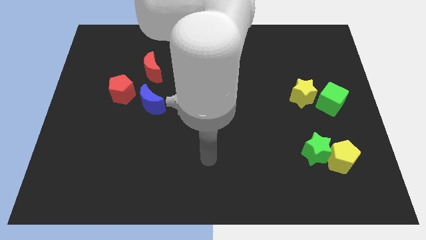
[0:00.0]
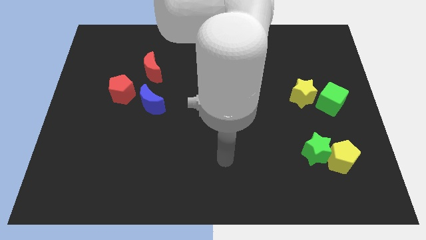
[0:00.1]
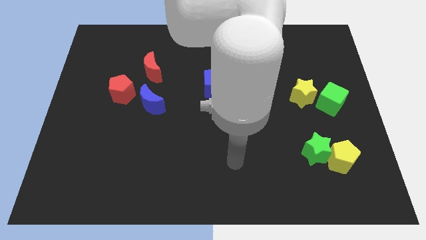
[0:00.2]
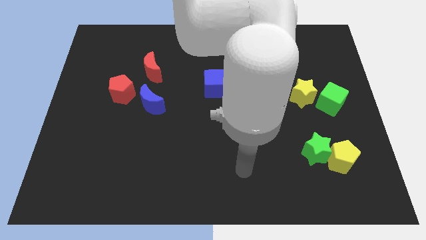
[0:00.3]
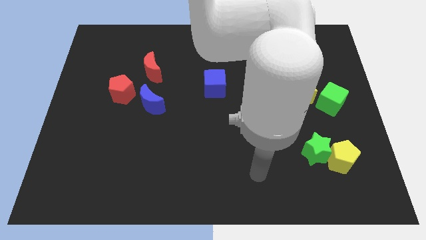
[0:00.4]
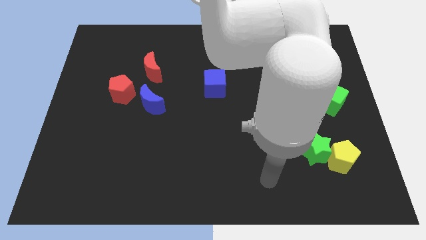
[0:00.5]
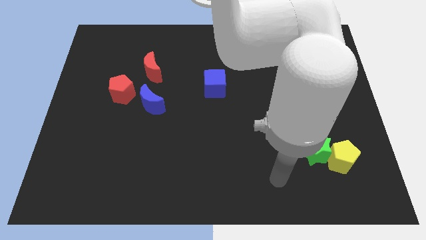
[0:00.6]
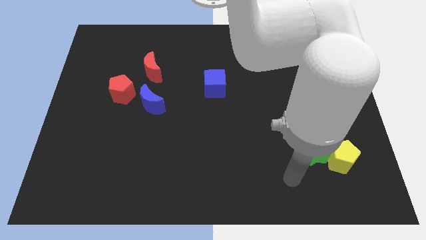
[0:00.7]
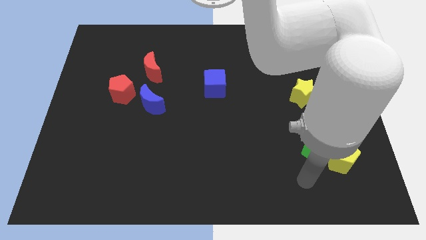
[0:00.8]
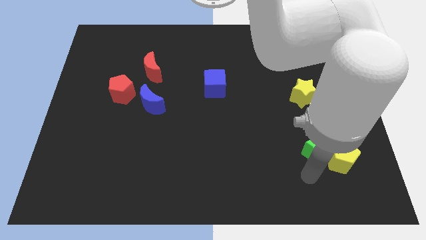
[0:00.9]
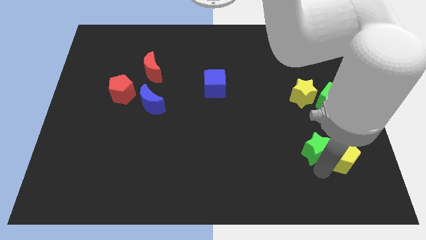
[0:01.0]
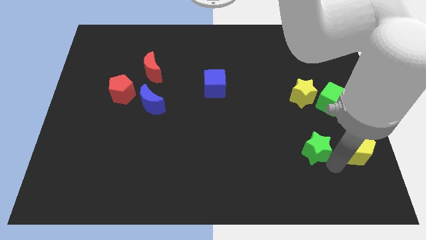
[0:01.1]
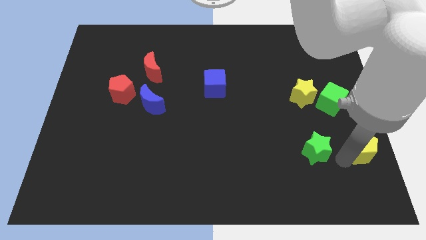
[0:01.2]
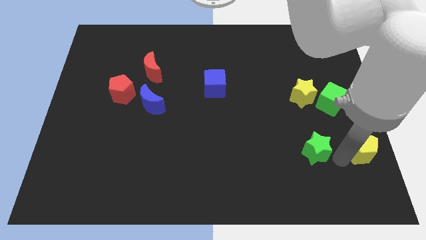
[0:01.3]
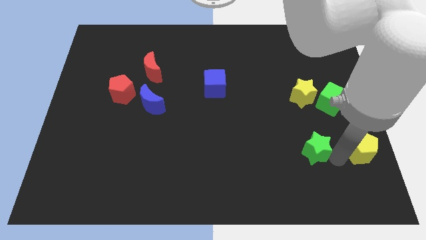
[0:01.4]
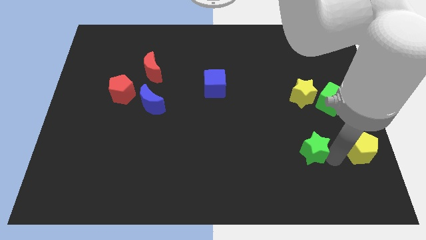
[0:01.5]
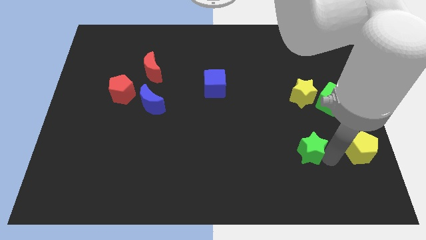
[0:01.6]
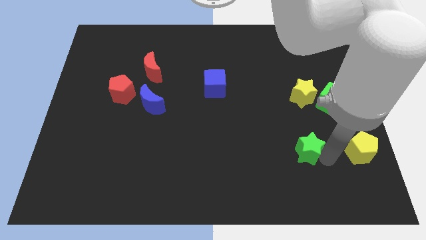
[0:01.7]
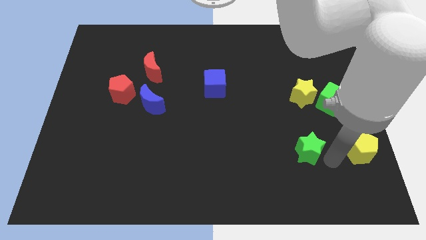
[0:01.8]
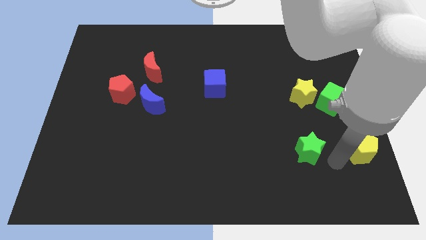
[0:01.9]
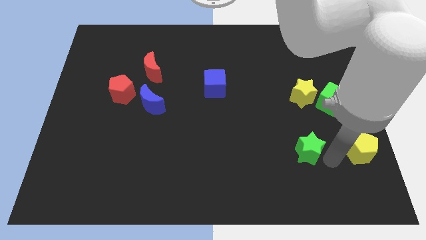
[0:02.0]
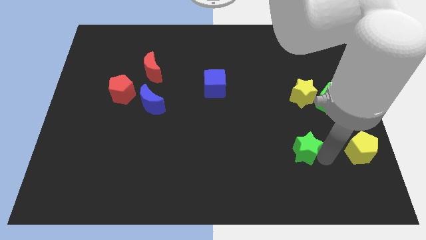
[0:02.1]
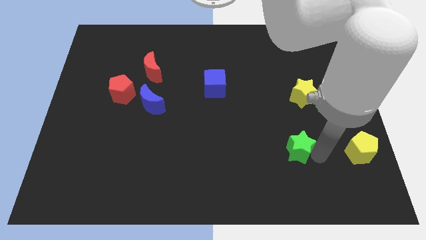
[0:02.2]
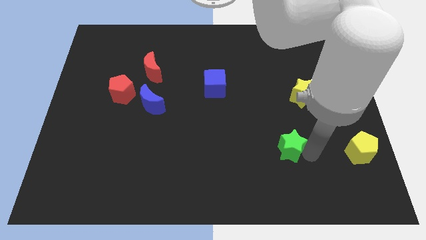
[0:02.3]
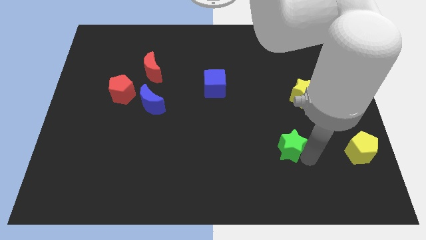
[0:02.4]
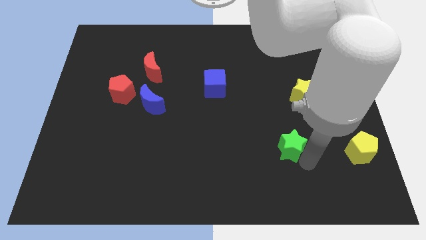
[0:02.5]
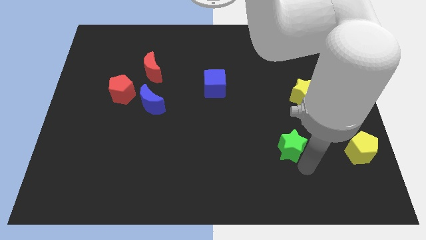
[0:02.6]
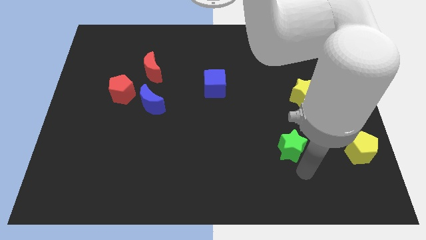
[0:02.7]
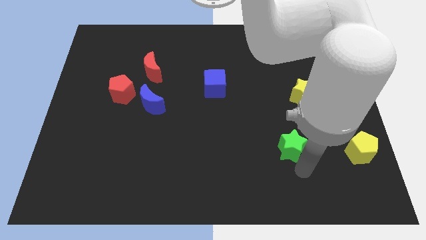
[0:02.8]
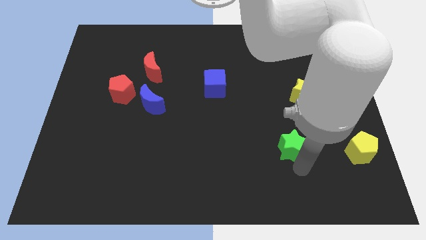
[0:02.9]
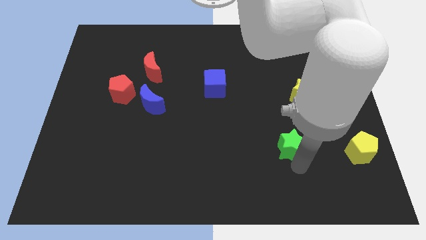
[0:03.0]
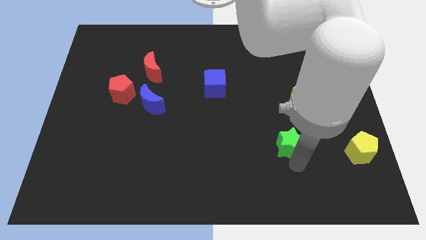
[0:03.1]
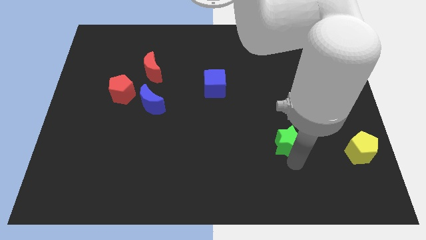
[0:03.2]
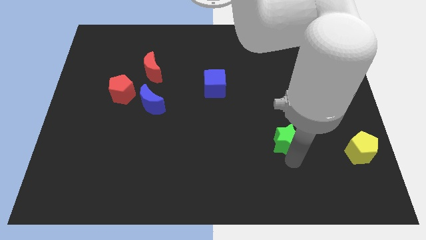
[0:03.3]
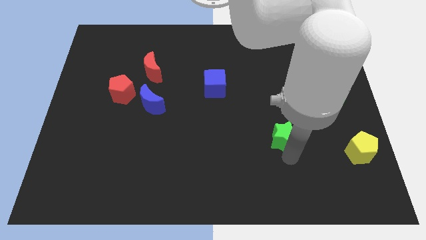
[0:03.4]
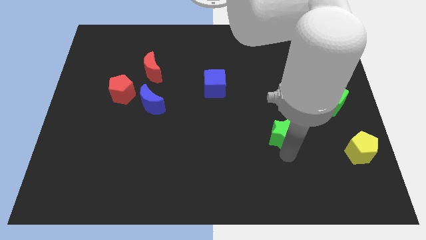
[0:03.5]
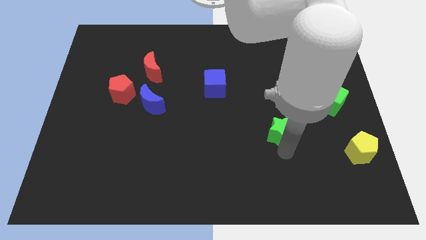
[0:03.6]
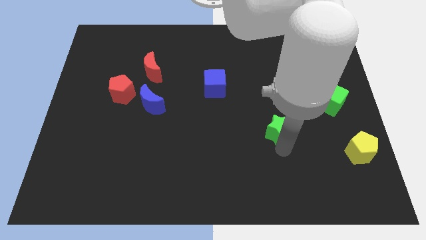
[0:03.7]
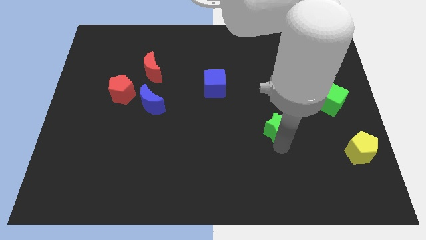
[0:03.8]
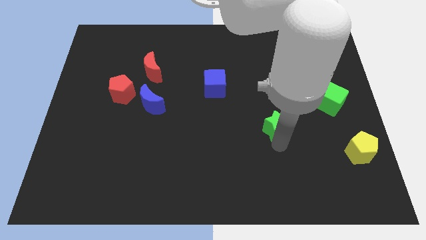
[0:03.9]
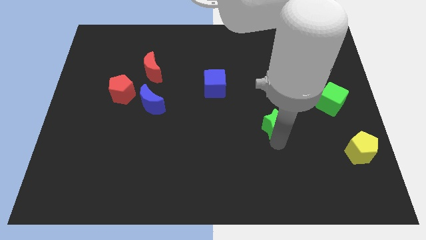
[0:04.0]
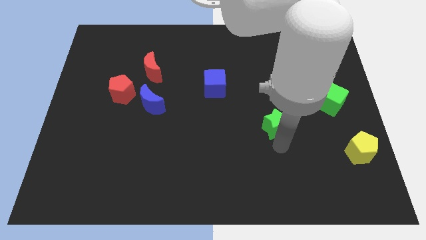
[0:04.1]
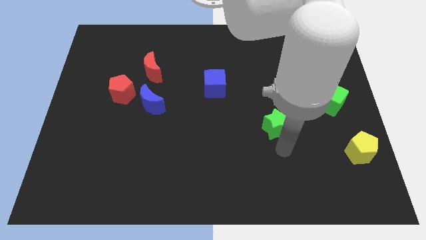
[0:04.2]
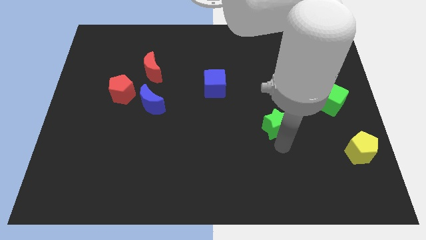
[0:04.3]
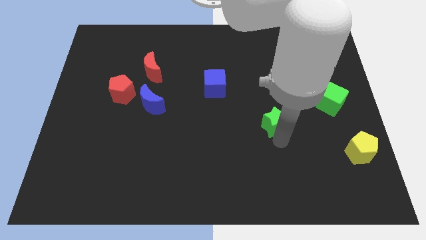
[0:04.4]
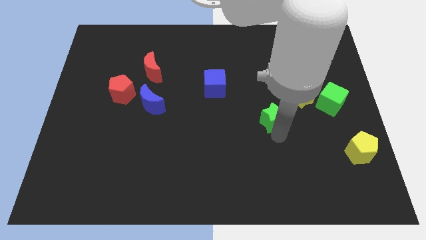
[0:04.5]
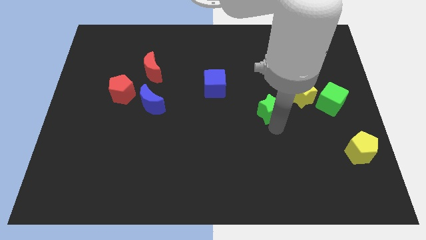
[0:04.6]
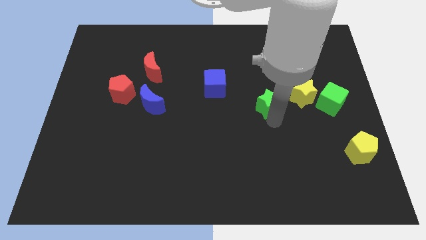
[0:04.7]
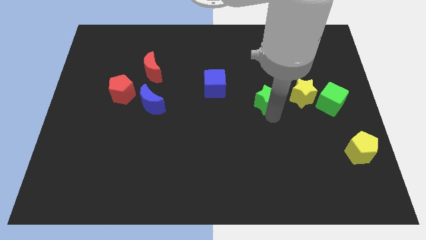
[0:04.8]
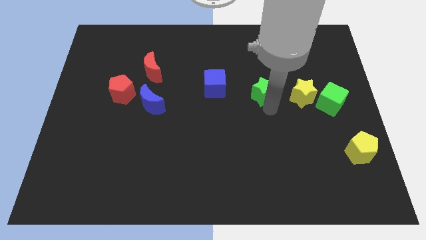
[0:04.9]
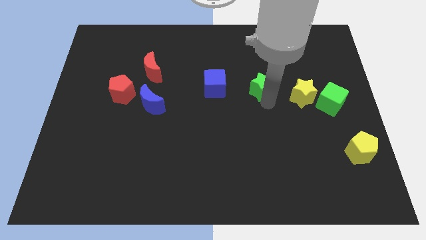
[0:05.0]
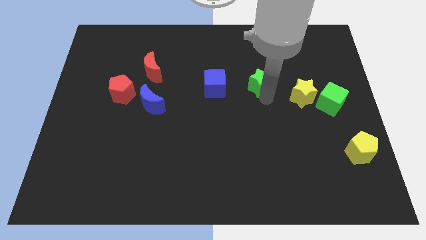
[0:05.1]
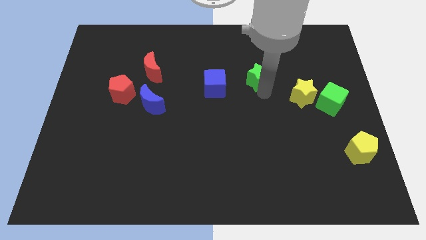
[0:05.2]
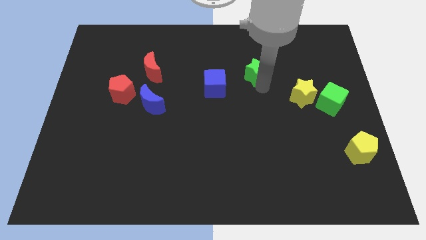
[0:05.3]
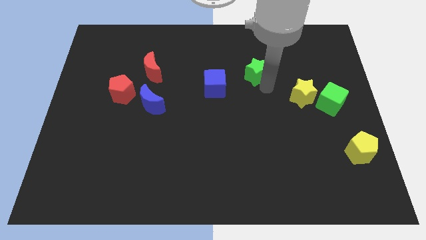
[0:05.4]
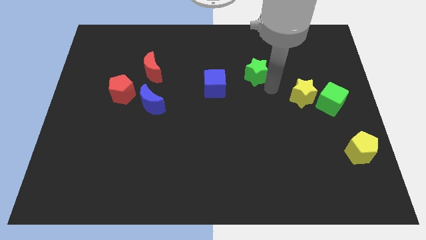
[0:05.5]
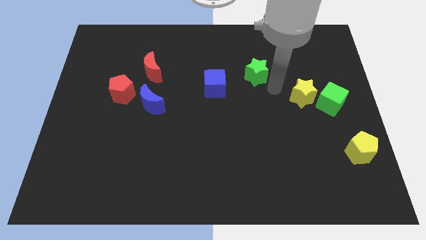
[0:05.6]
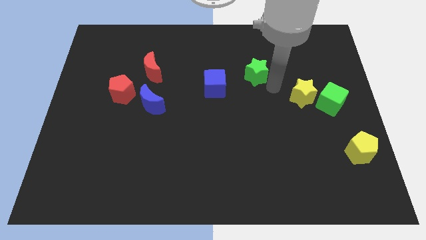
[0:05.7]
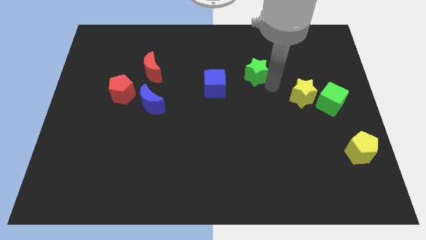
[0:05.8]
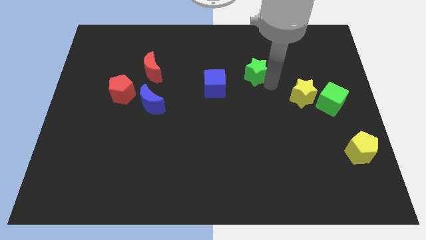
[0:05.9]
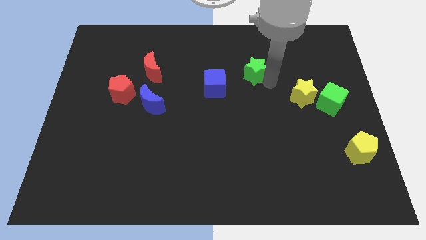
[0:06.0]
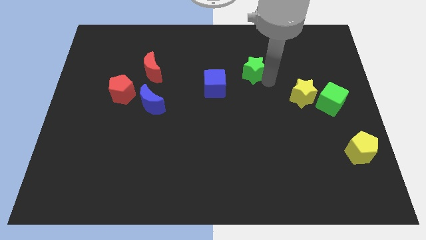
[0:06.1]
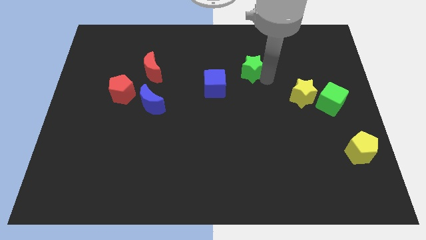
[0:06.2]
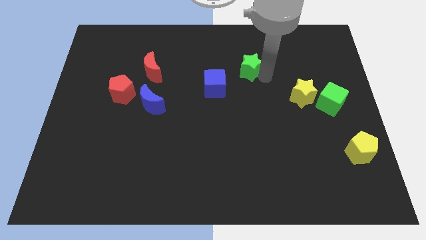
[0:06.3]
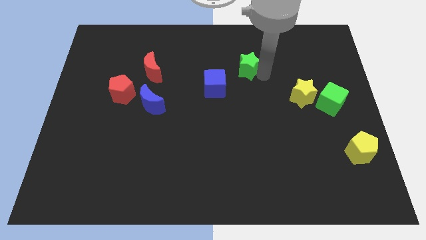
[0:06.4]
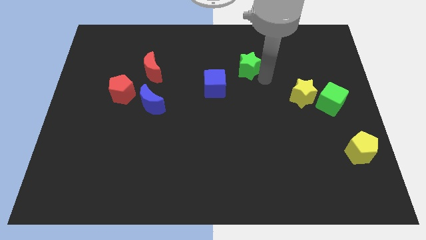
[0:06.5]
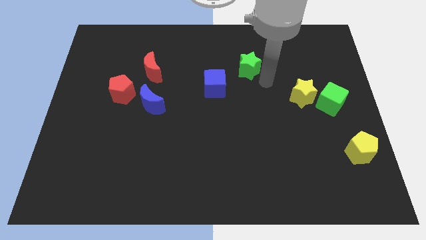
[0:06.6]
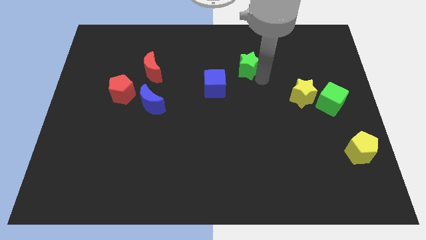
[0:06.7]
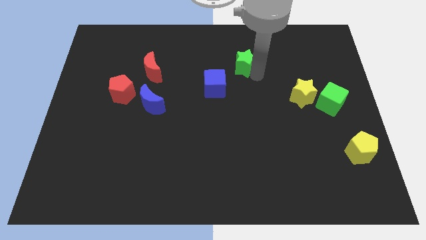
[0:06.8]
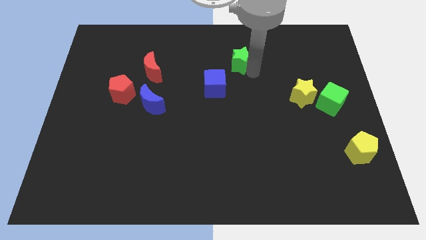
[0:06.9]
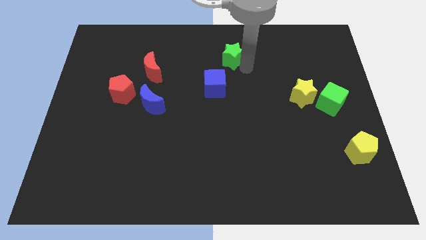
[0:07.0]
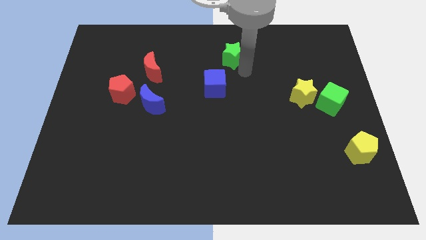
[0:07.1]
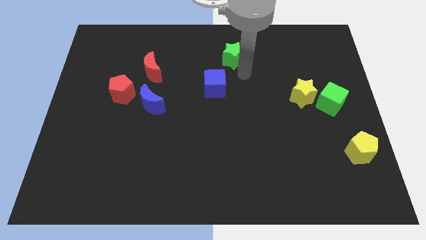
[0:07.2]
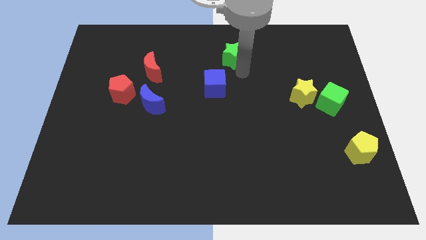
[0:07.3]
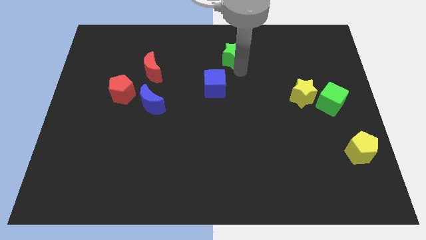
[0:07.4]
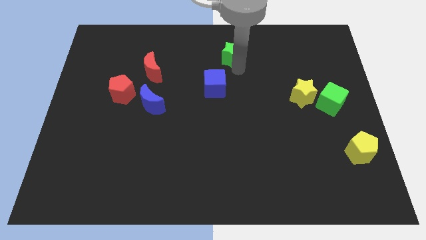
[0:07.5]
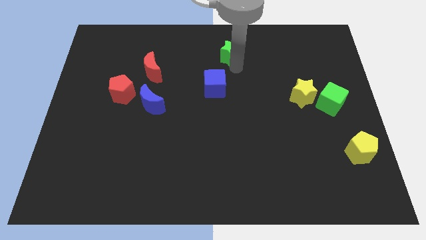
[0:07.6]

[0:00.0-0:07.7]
push the green star to the towards your base
